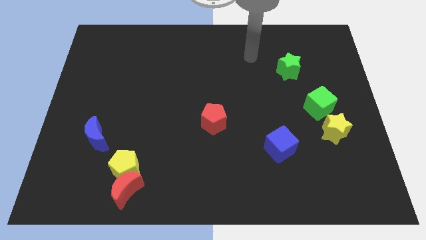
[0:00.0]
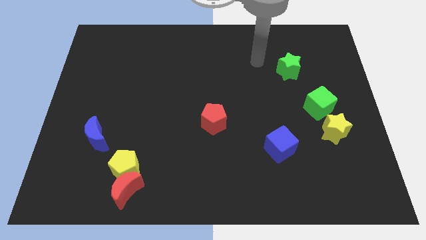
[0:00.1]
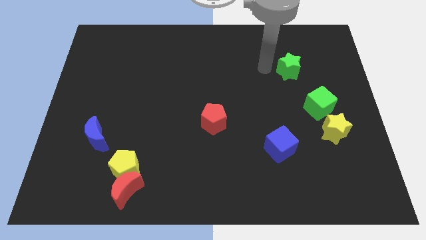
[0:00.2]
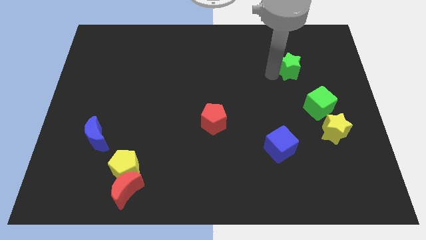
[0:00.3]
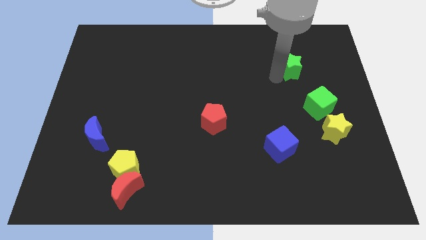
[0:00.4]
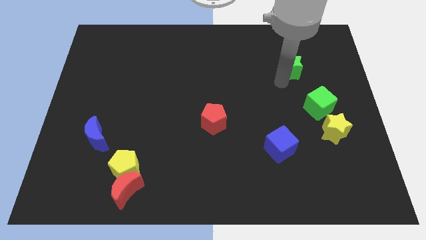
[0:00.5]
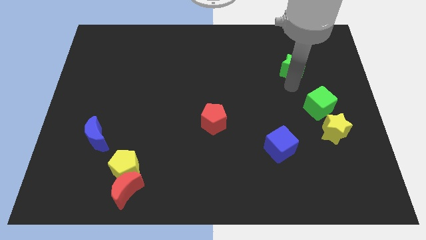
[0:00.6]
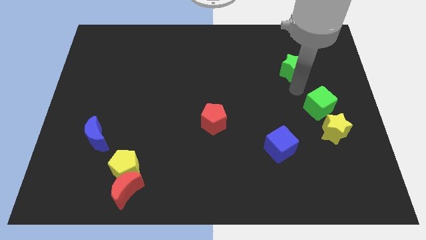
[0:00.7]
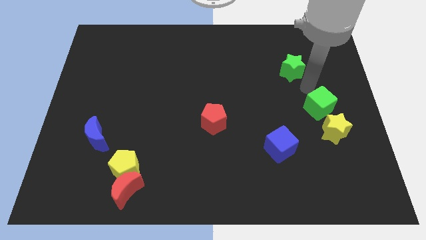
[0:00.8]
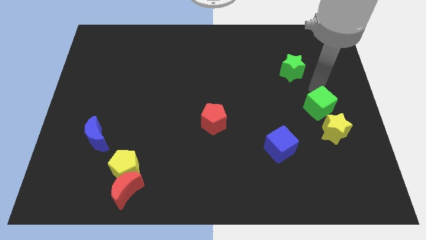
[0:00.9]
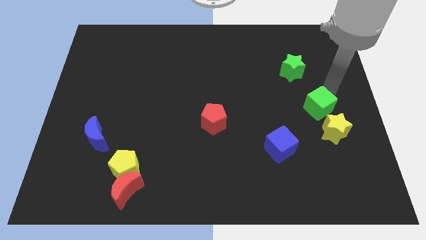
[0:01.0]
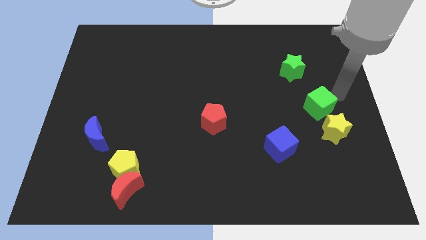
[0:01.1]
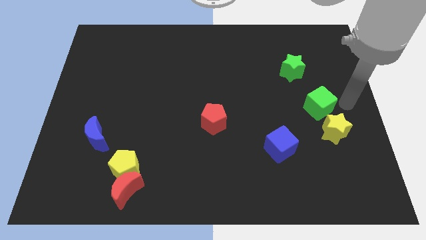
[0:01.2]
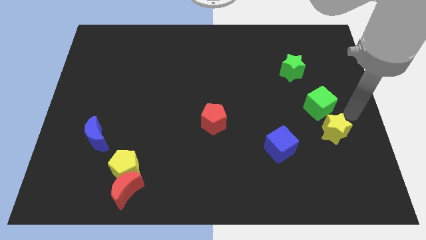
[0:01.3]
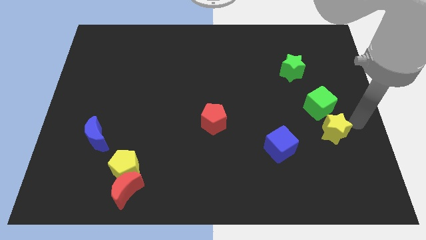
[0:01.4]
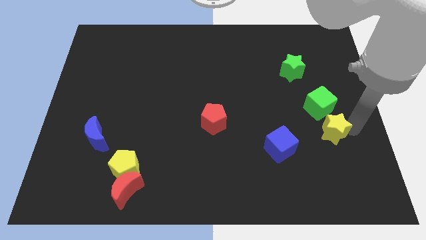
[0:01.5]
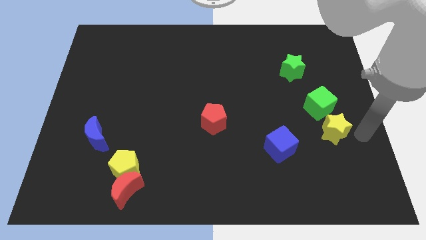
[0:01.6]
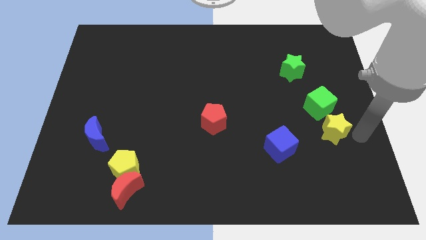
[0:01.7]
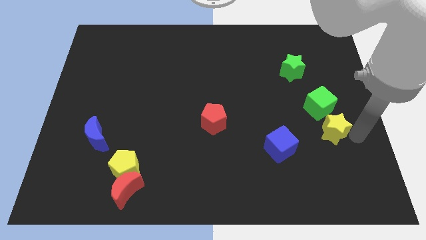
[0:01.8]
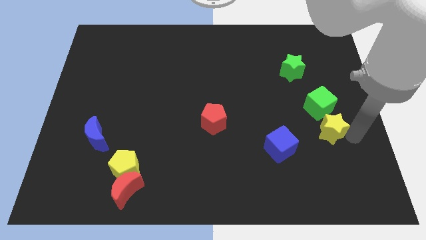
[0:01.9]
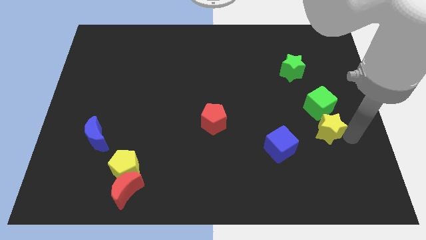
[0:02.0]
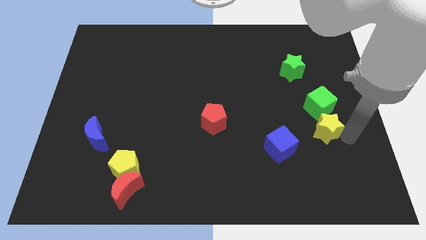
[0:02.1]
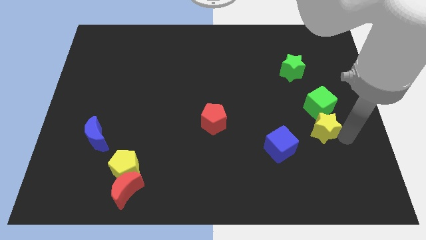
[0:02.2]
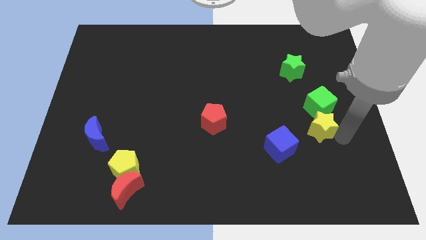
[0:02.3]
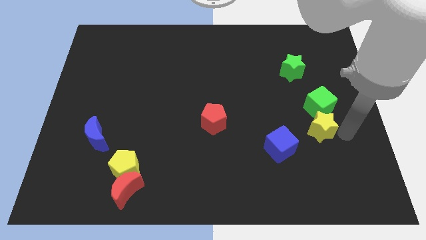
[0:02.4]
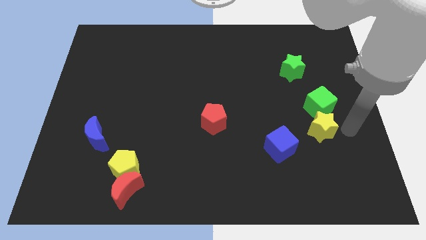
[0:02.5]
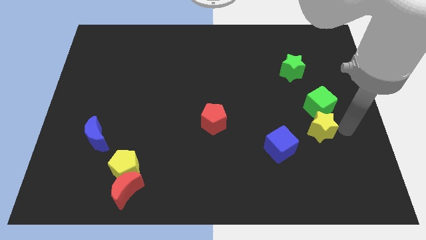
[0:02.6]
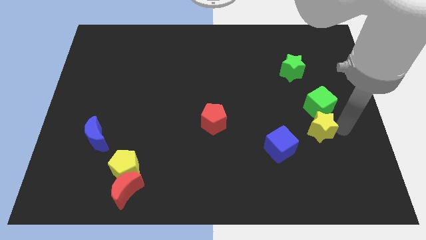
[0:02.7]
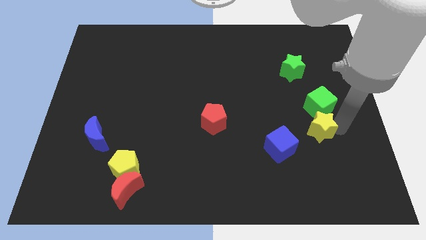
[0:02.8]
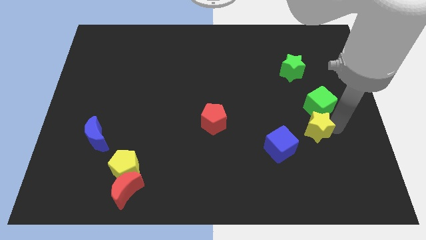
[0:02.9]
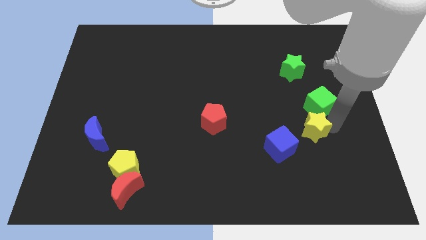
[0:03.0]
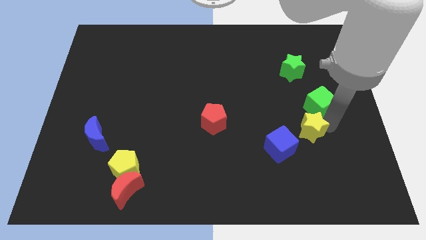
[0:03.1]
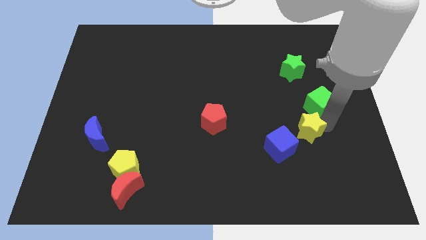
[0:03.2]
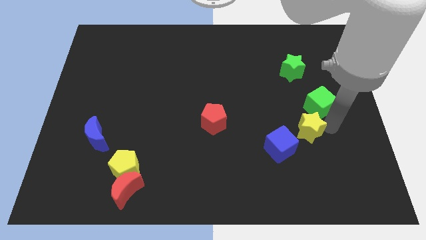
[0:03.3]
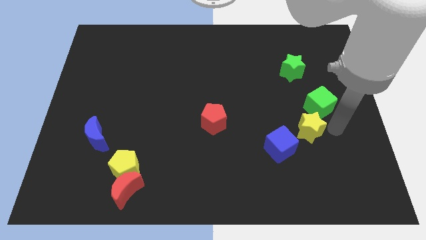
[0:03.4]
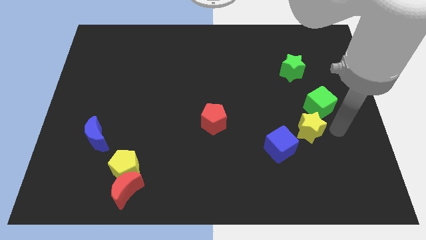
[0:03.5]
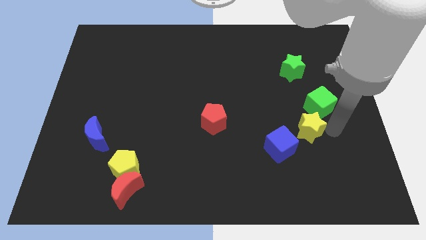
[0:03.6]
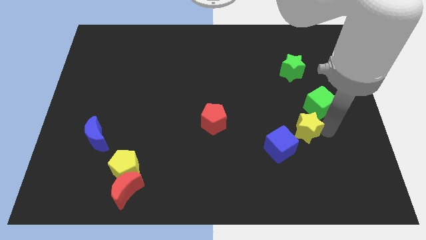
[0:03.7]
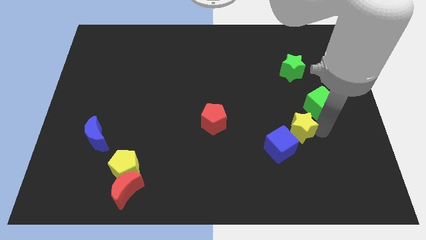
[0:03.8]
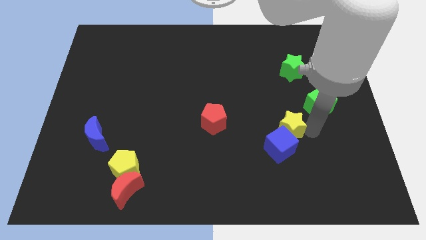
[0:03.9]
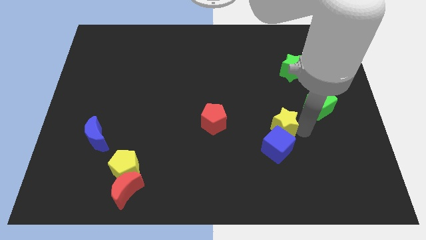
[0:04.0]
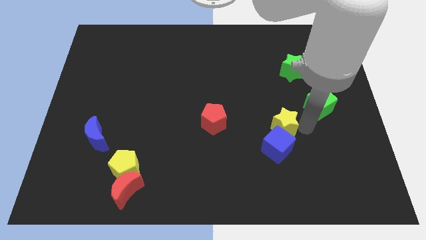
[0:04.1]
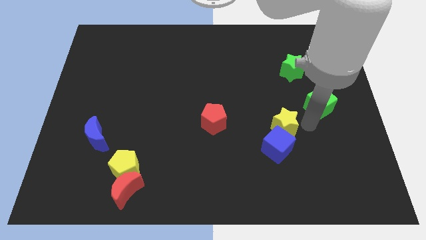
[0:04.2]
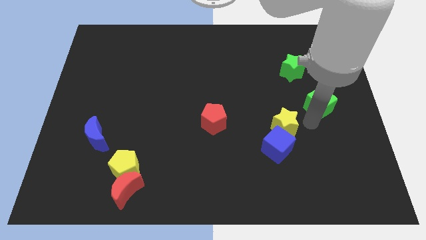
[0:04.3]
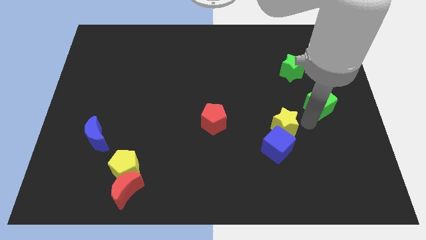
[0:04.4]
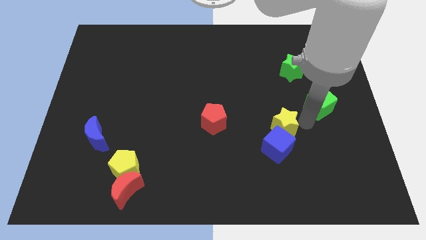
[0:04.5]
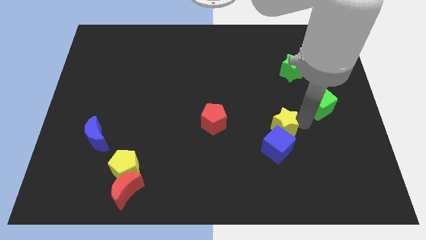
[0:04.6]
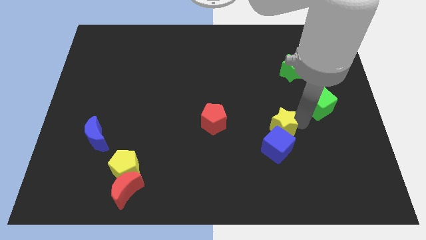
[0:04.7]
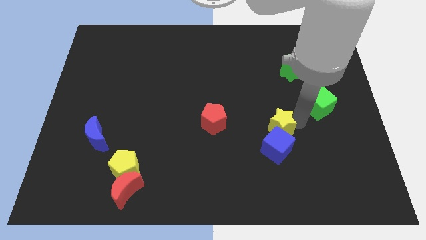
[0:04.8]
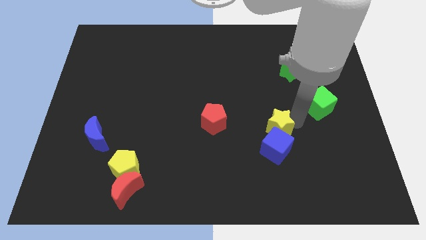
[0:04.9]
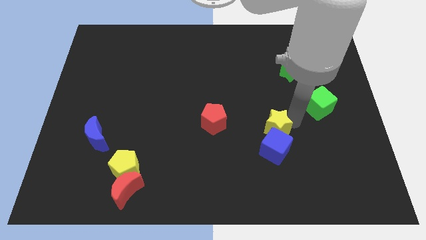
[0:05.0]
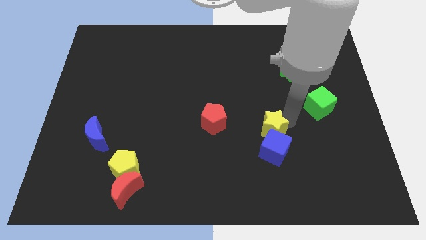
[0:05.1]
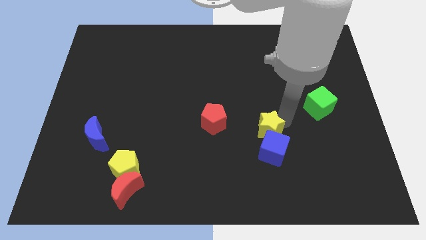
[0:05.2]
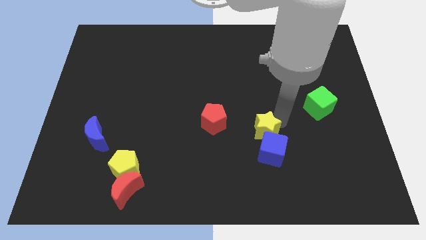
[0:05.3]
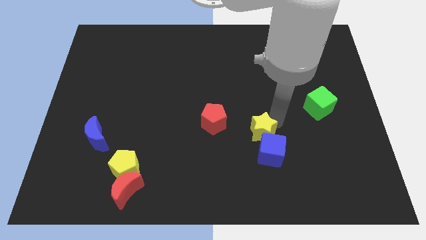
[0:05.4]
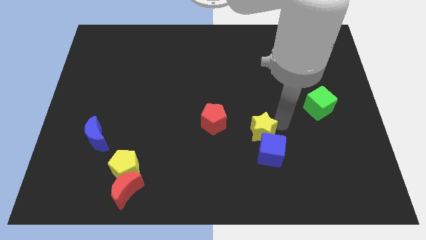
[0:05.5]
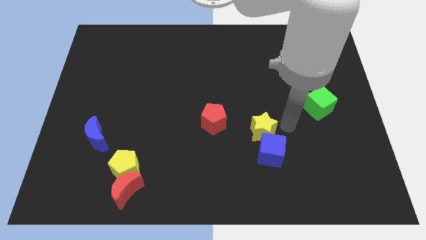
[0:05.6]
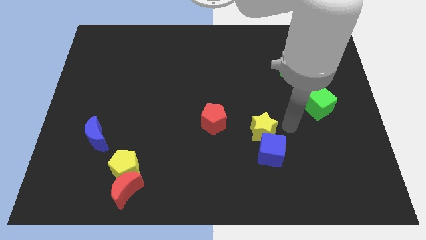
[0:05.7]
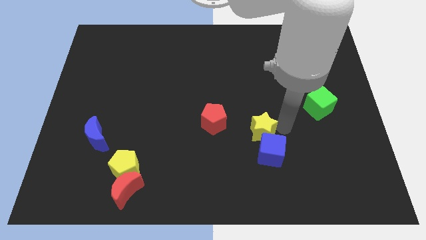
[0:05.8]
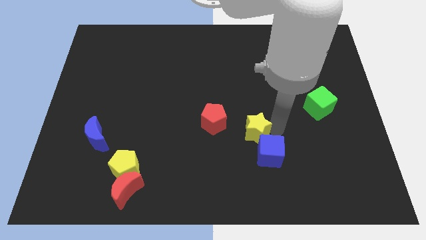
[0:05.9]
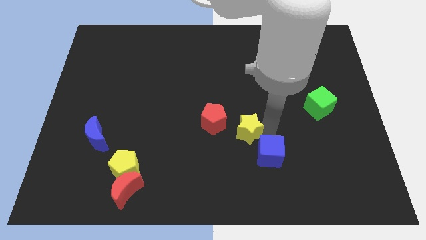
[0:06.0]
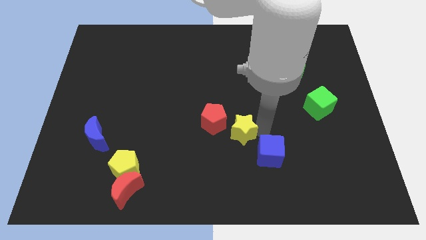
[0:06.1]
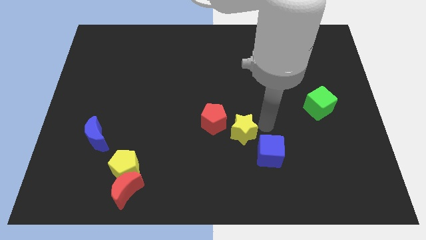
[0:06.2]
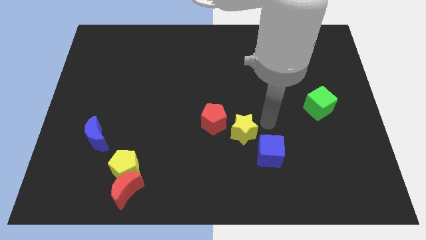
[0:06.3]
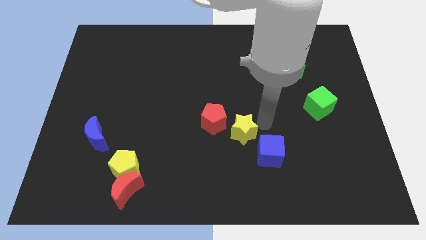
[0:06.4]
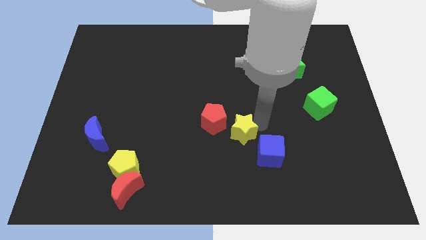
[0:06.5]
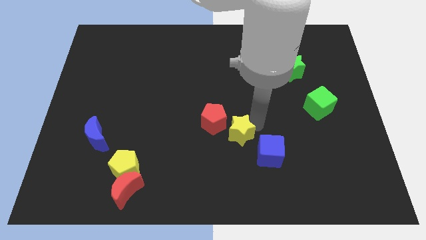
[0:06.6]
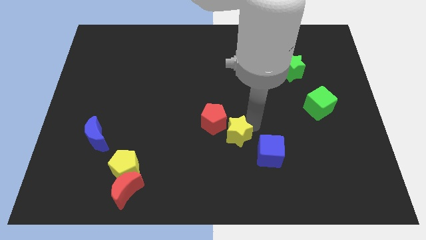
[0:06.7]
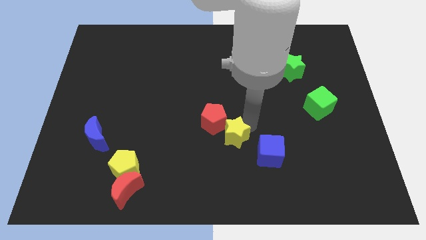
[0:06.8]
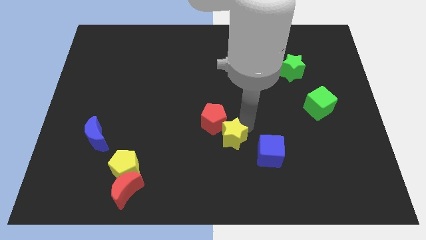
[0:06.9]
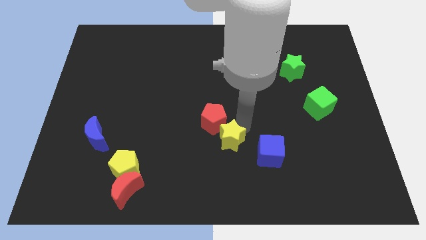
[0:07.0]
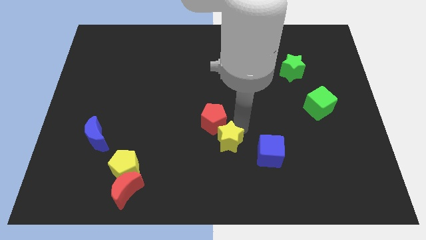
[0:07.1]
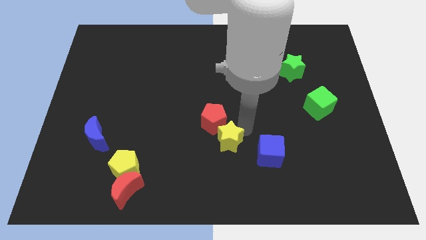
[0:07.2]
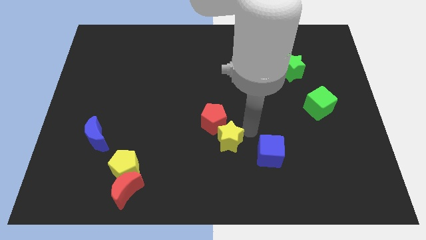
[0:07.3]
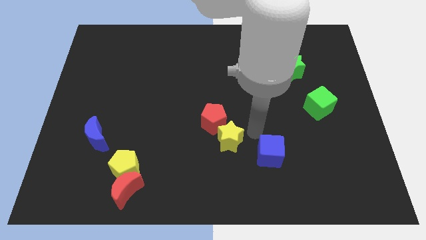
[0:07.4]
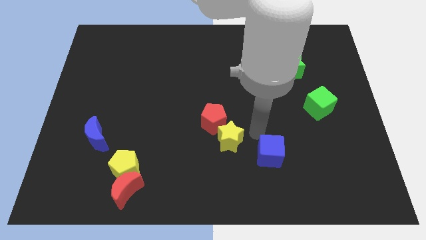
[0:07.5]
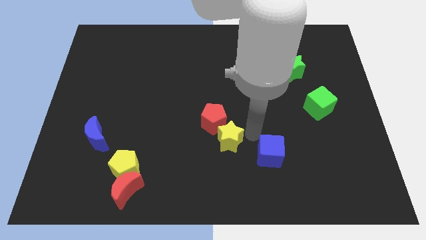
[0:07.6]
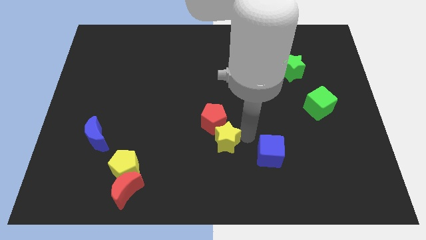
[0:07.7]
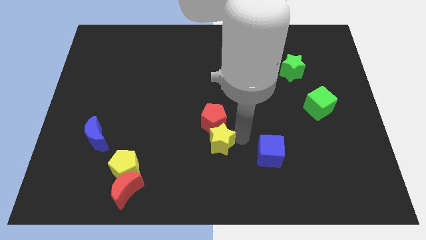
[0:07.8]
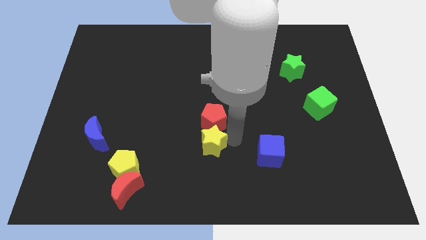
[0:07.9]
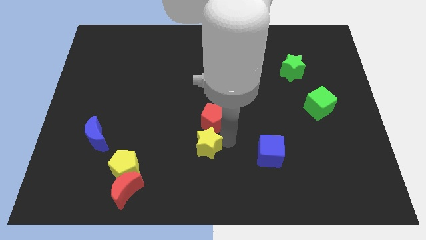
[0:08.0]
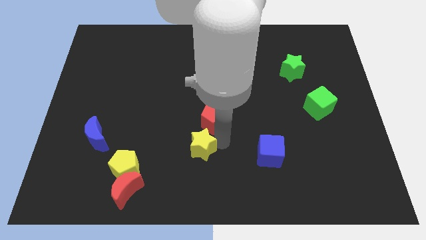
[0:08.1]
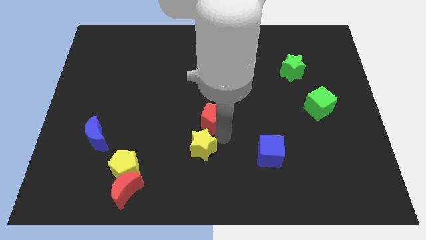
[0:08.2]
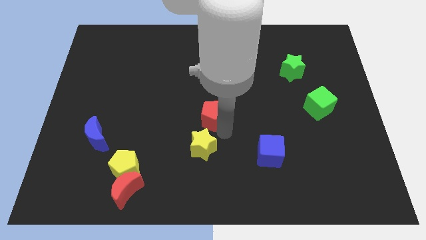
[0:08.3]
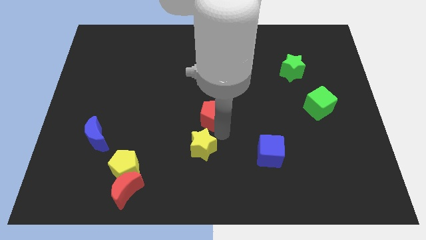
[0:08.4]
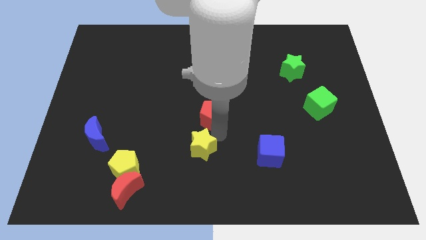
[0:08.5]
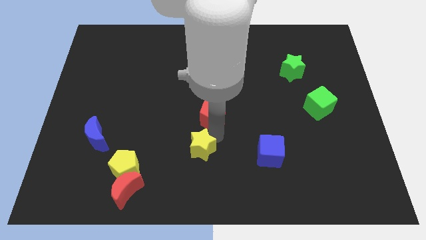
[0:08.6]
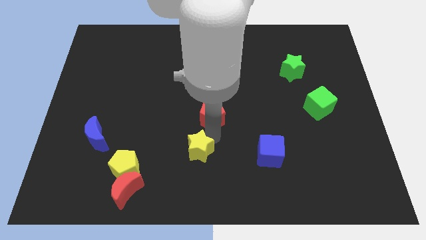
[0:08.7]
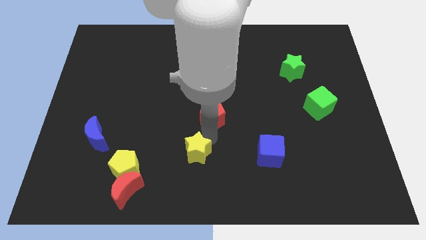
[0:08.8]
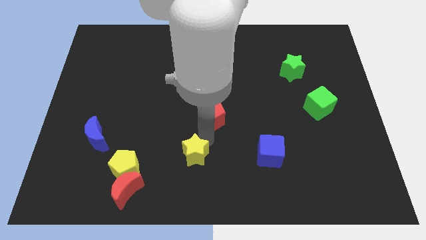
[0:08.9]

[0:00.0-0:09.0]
slide the yellow star to the right of the yellow pentagon
